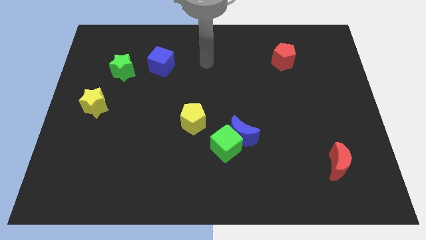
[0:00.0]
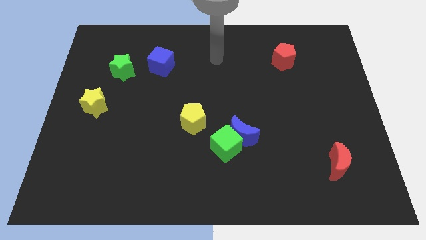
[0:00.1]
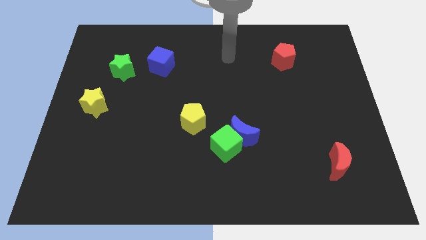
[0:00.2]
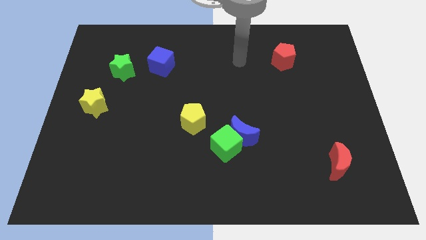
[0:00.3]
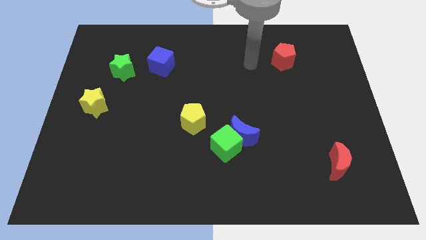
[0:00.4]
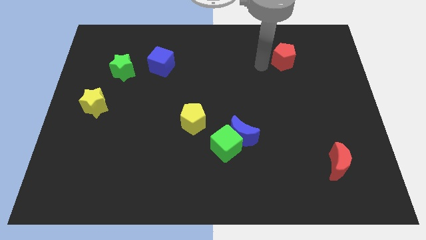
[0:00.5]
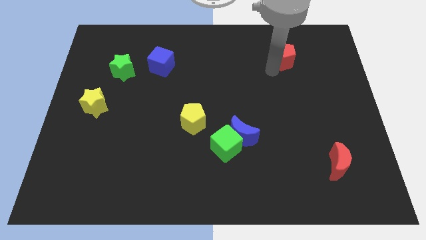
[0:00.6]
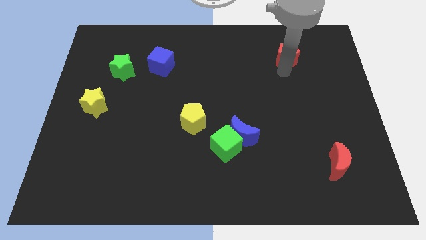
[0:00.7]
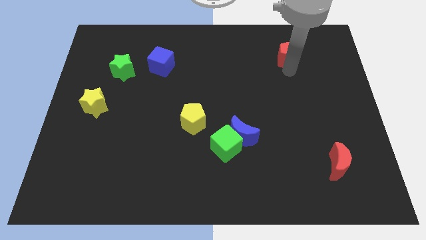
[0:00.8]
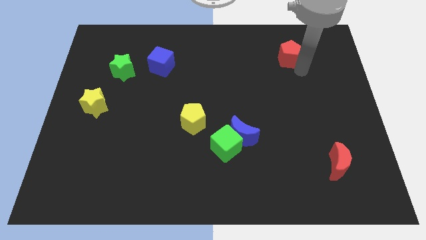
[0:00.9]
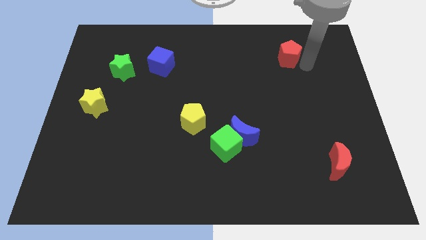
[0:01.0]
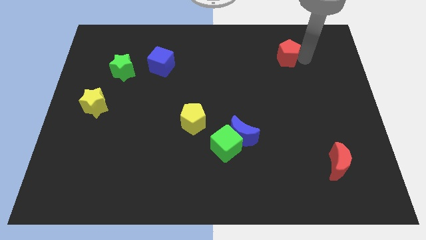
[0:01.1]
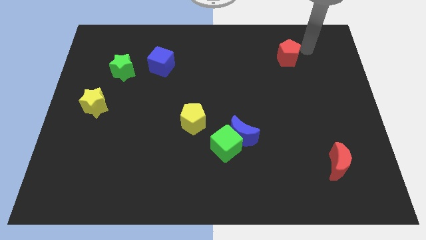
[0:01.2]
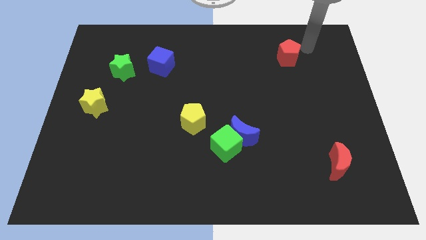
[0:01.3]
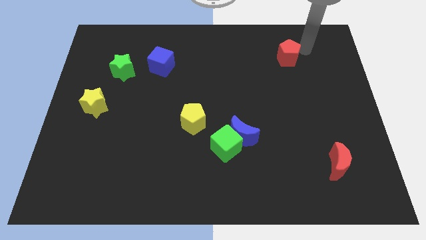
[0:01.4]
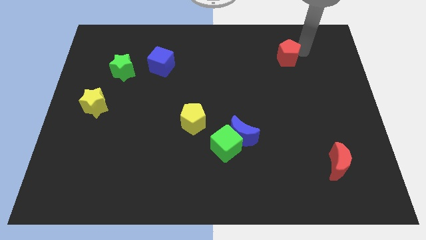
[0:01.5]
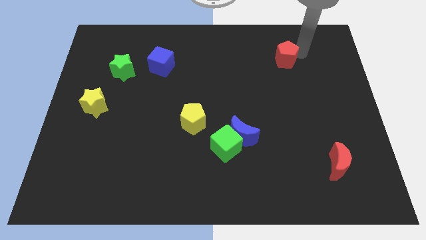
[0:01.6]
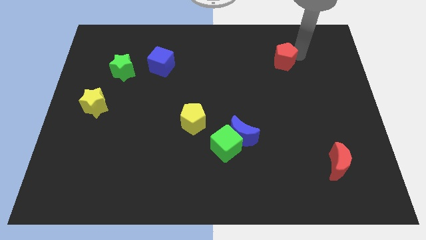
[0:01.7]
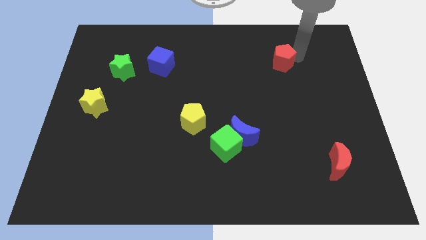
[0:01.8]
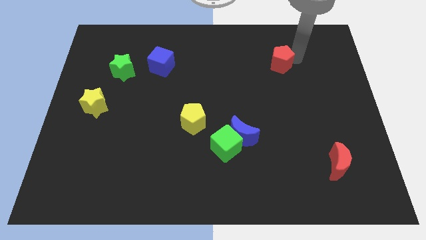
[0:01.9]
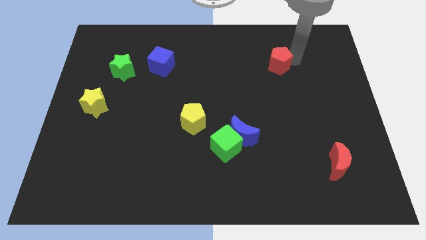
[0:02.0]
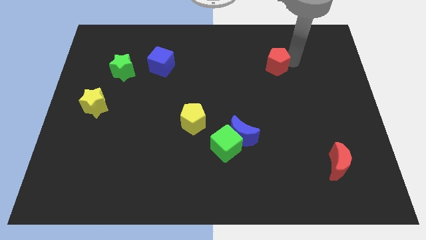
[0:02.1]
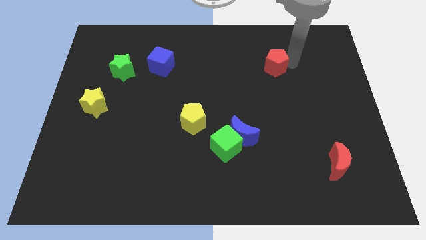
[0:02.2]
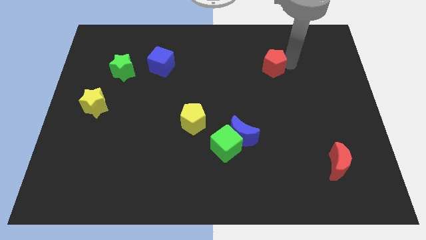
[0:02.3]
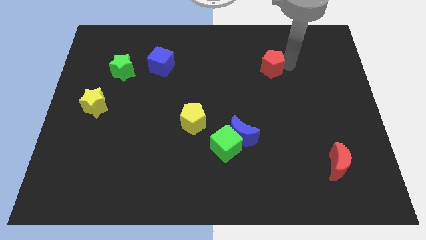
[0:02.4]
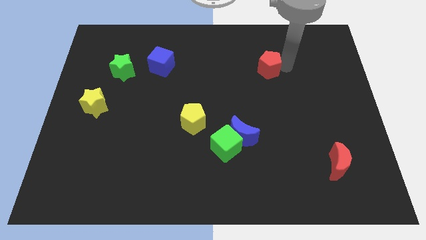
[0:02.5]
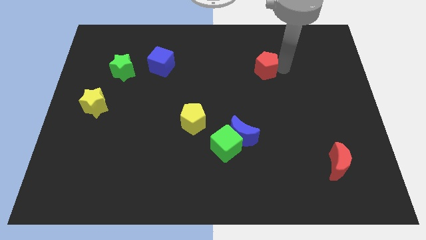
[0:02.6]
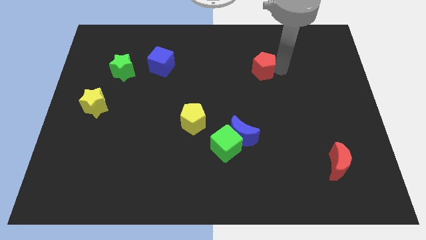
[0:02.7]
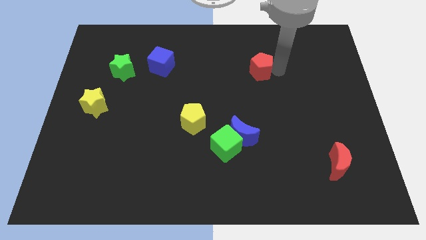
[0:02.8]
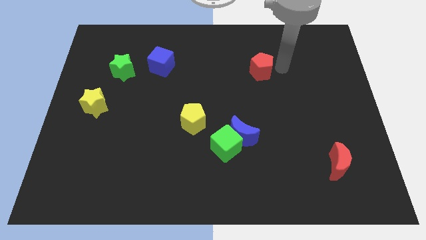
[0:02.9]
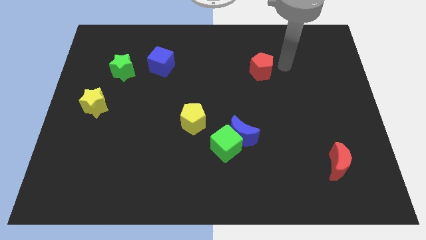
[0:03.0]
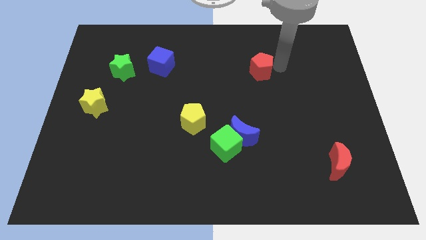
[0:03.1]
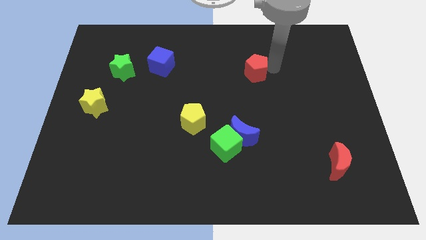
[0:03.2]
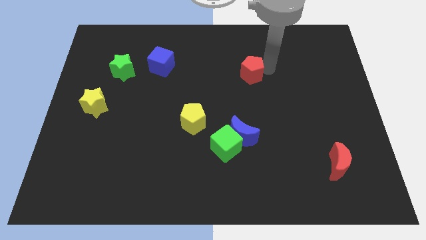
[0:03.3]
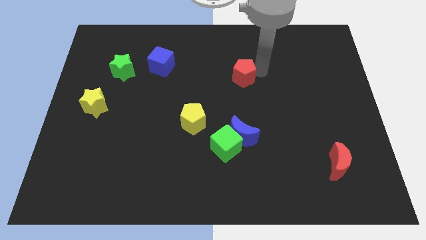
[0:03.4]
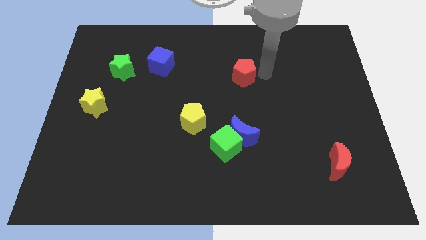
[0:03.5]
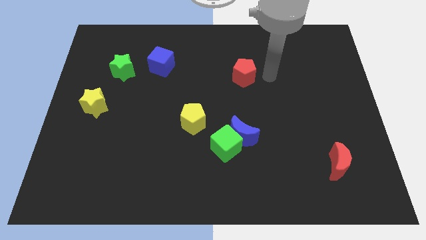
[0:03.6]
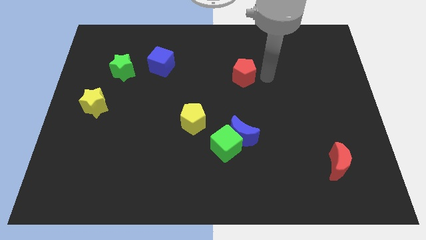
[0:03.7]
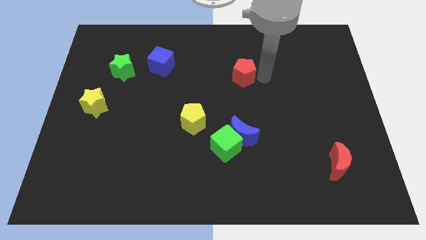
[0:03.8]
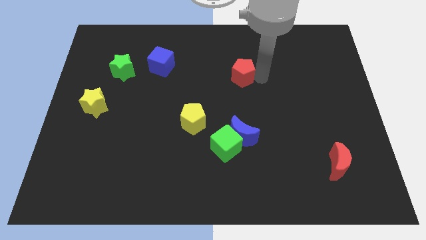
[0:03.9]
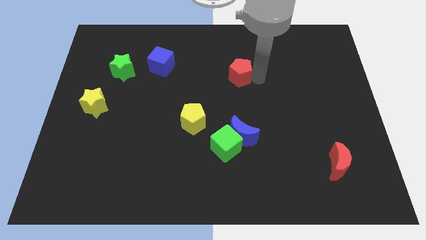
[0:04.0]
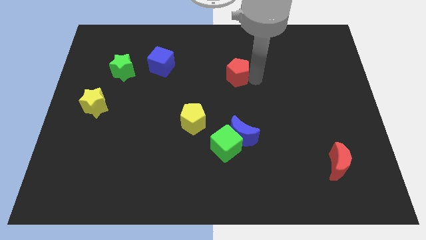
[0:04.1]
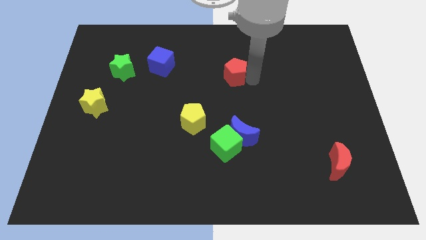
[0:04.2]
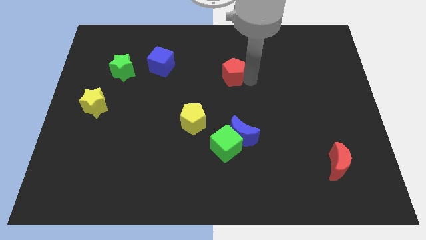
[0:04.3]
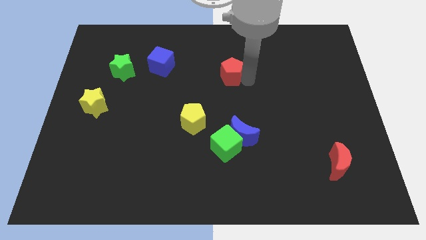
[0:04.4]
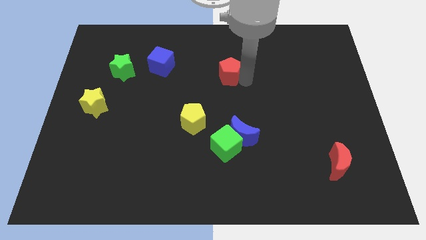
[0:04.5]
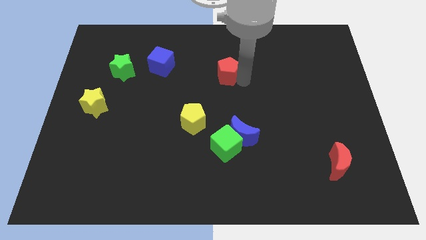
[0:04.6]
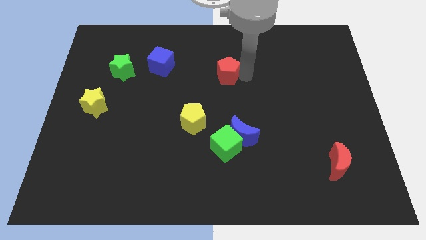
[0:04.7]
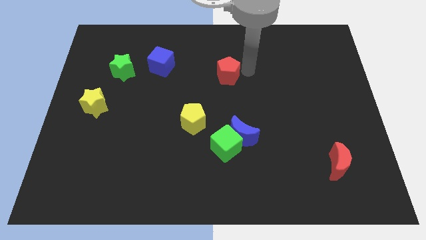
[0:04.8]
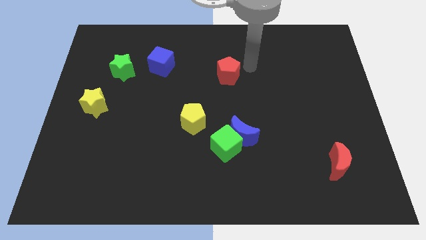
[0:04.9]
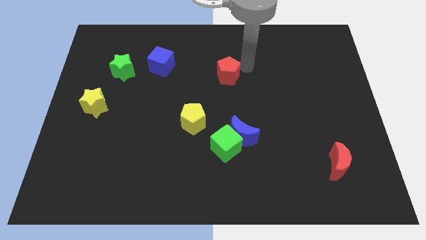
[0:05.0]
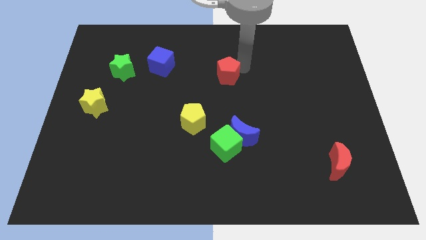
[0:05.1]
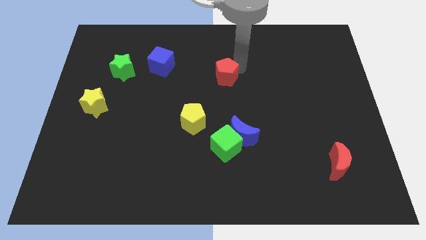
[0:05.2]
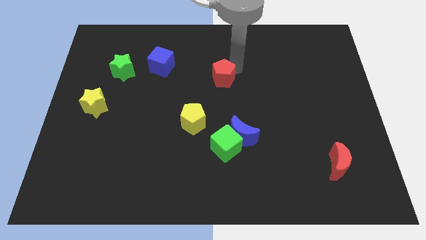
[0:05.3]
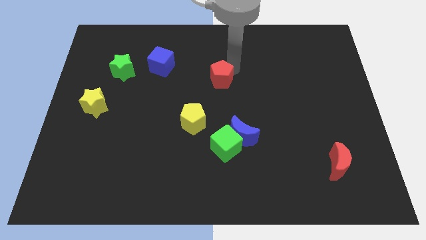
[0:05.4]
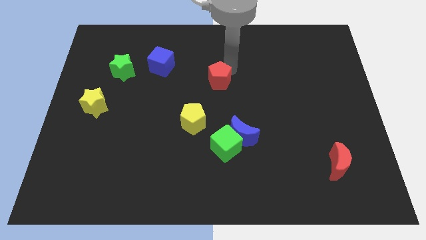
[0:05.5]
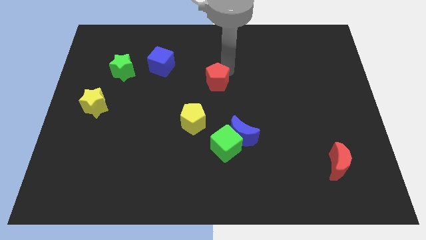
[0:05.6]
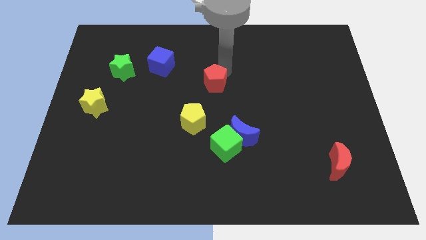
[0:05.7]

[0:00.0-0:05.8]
push the red pentagon to the top of the yellow pentagon

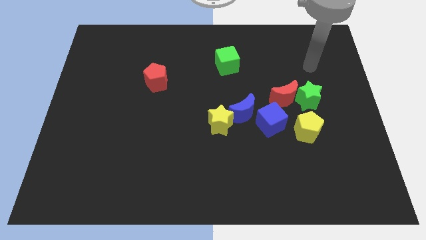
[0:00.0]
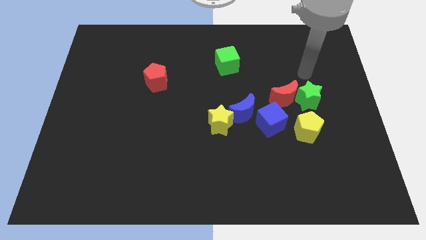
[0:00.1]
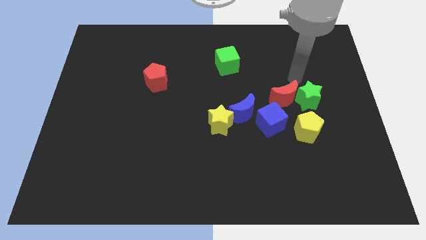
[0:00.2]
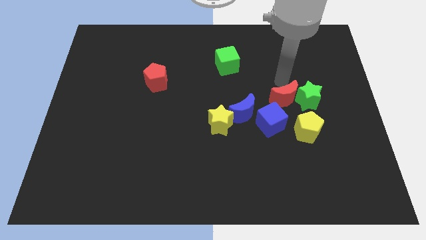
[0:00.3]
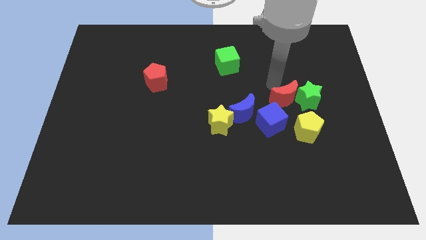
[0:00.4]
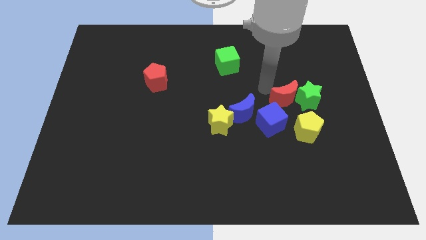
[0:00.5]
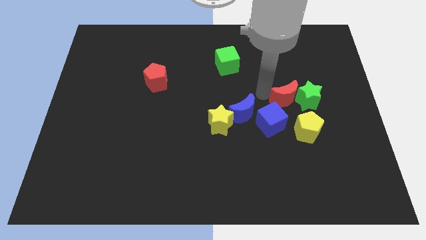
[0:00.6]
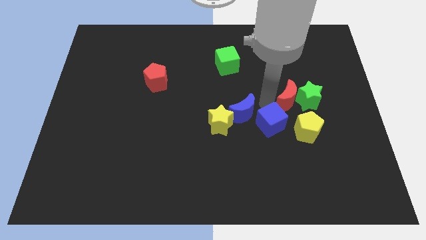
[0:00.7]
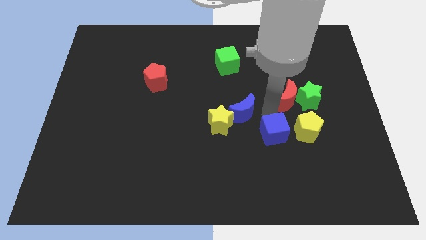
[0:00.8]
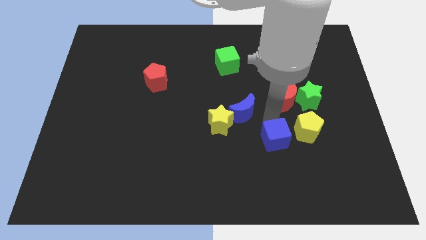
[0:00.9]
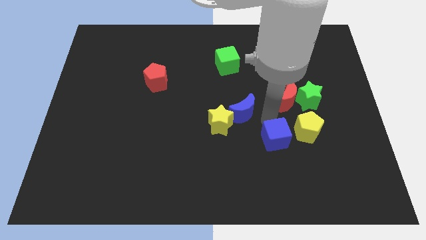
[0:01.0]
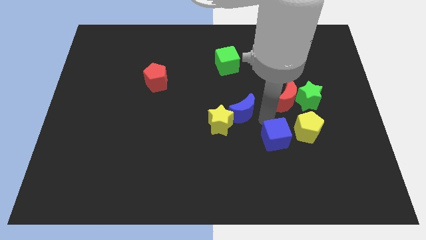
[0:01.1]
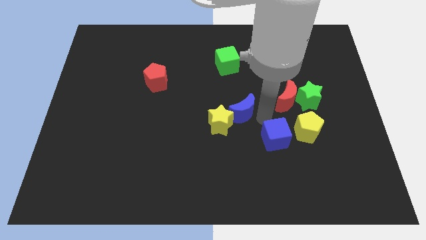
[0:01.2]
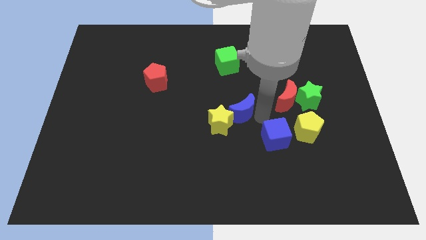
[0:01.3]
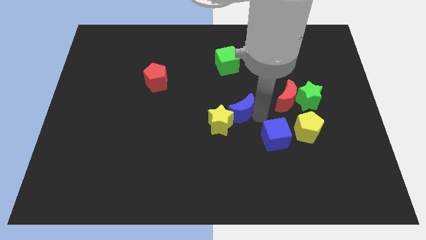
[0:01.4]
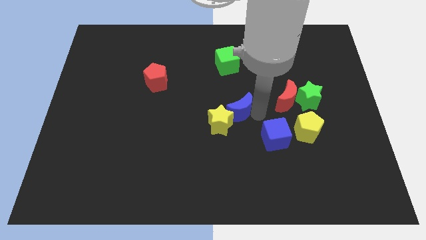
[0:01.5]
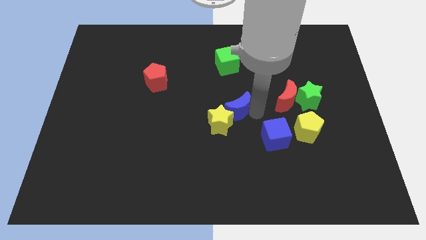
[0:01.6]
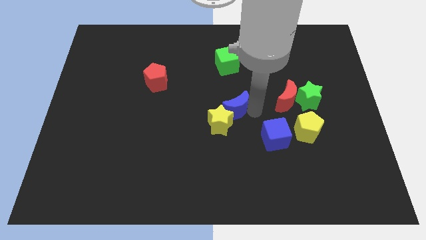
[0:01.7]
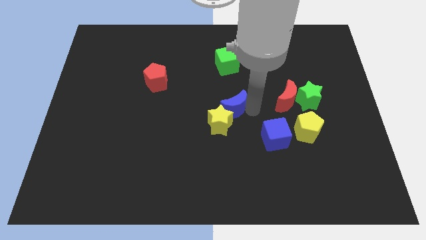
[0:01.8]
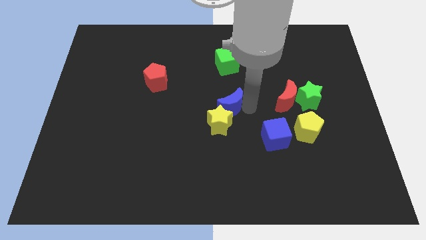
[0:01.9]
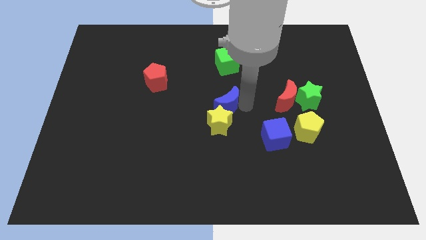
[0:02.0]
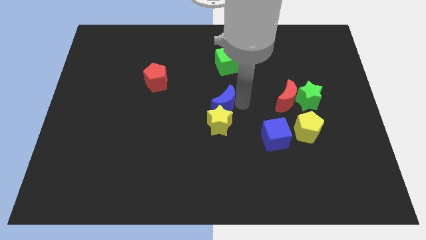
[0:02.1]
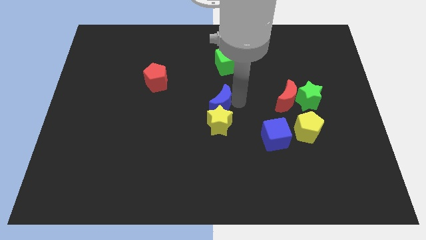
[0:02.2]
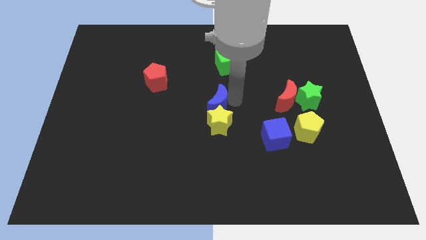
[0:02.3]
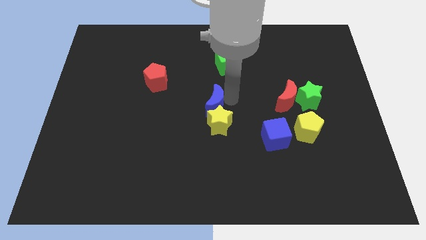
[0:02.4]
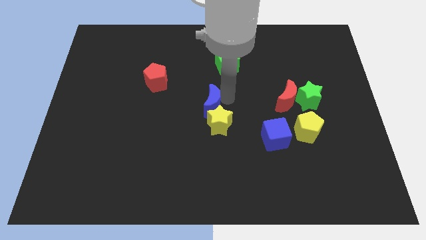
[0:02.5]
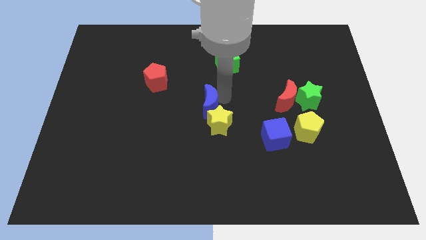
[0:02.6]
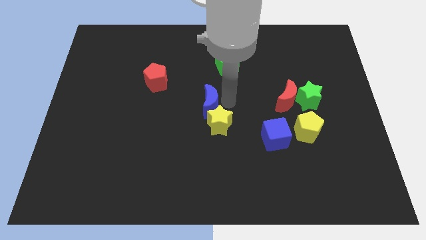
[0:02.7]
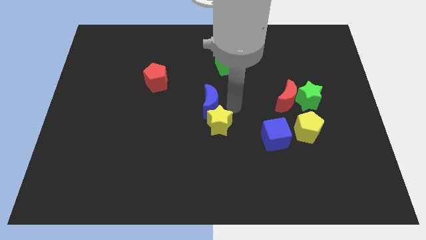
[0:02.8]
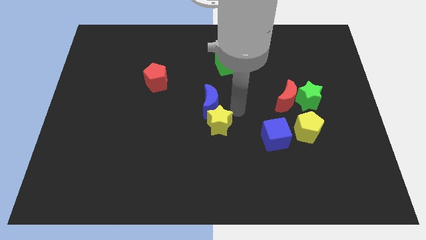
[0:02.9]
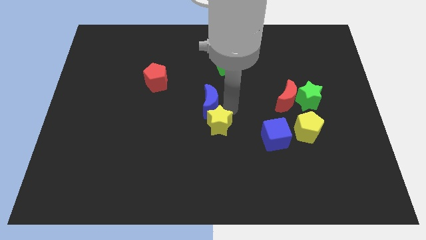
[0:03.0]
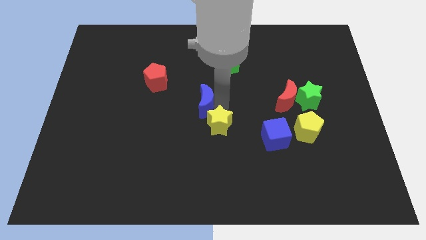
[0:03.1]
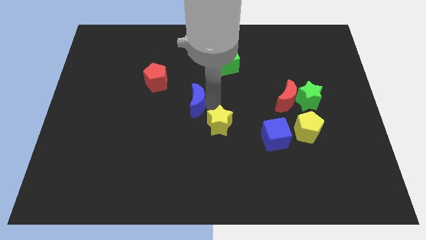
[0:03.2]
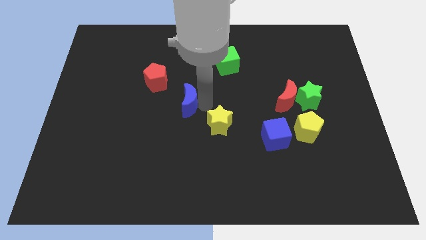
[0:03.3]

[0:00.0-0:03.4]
put the blue moon to the bottom right of the red pentagon
